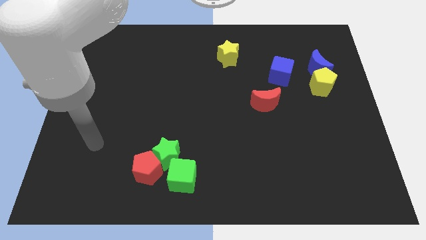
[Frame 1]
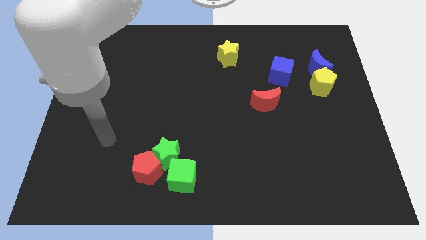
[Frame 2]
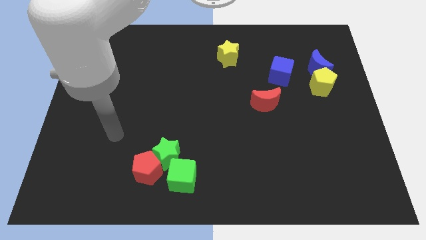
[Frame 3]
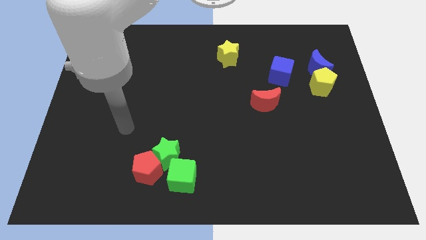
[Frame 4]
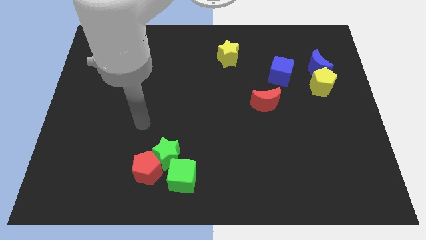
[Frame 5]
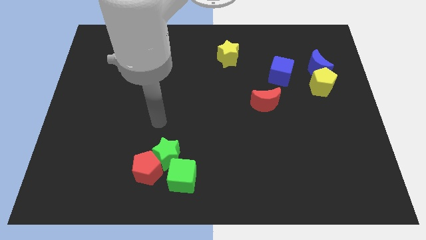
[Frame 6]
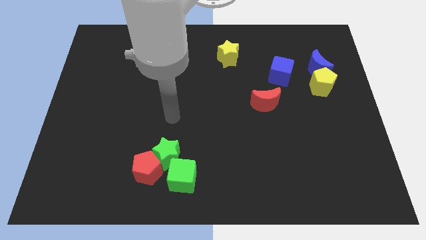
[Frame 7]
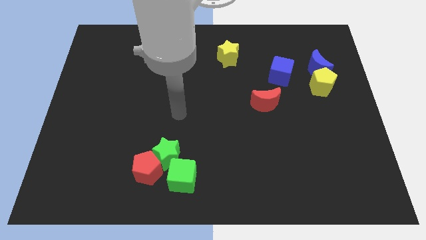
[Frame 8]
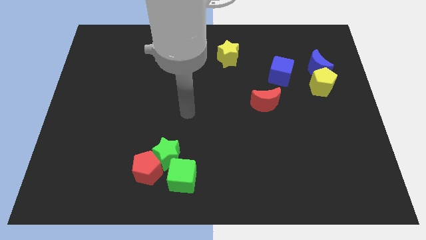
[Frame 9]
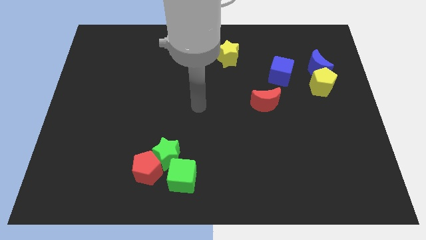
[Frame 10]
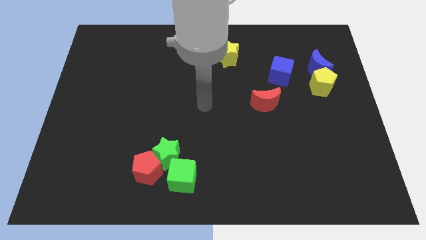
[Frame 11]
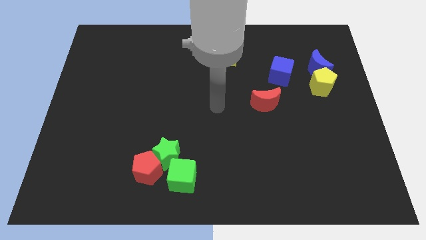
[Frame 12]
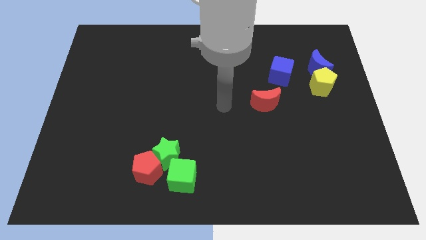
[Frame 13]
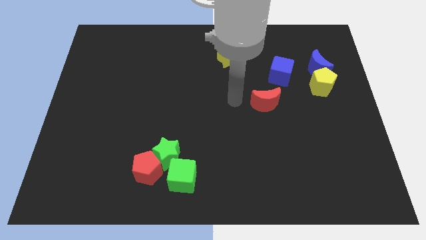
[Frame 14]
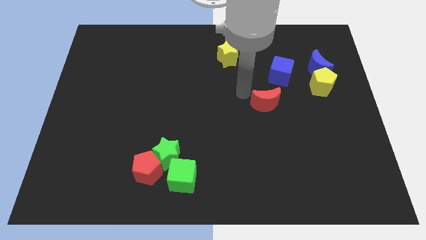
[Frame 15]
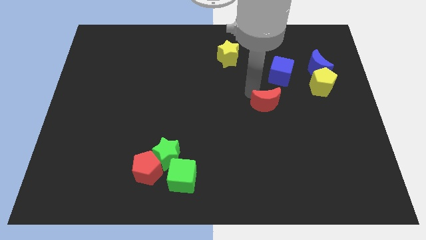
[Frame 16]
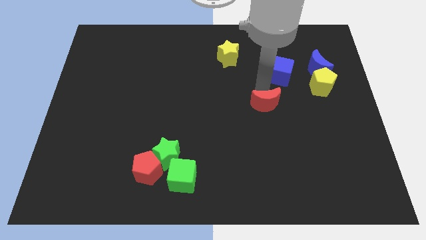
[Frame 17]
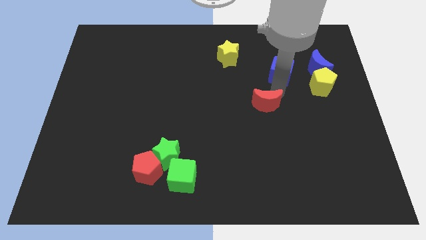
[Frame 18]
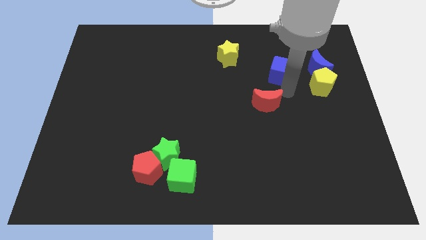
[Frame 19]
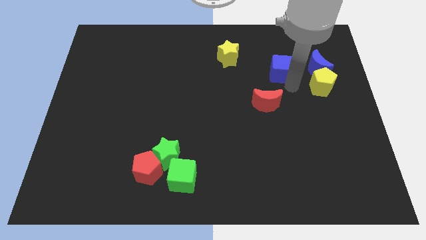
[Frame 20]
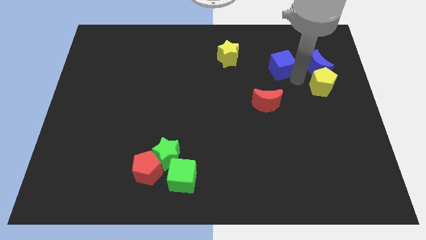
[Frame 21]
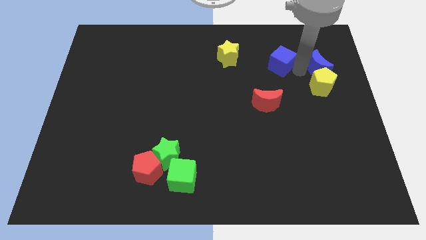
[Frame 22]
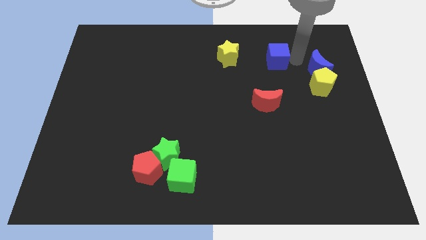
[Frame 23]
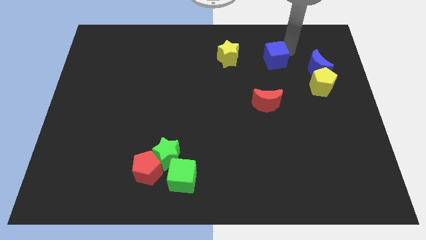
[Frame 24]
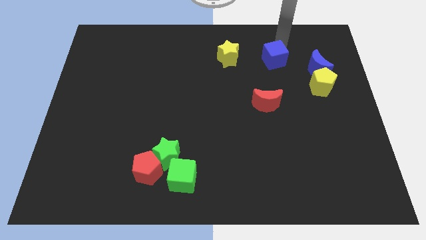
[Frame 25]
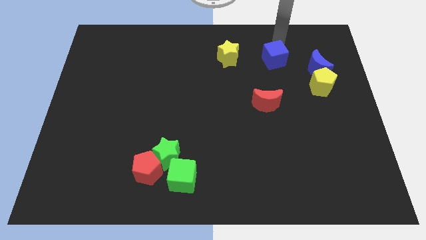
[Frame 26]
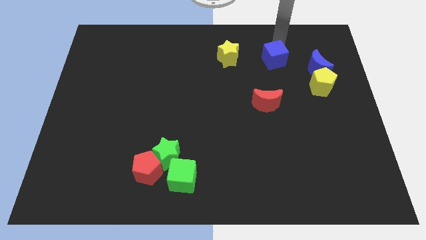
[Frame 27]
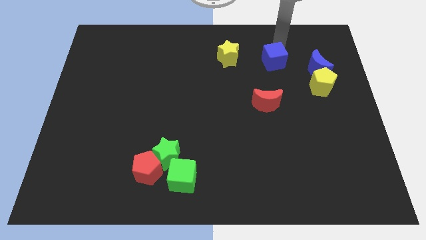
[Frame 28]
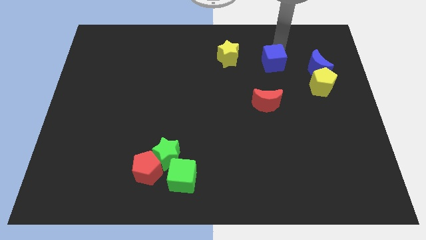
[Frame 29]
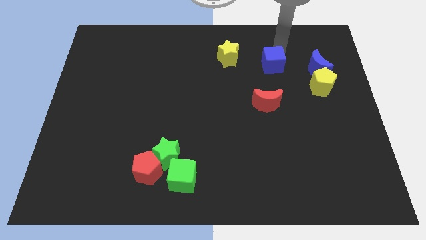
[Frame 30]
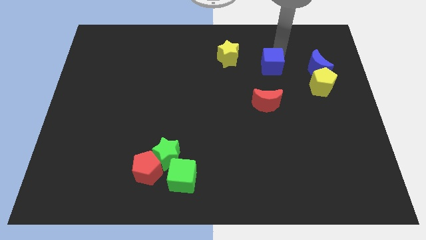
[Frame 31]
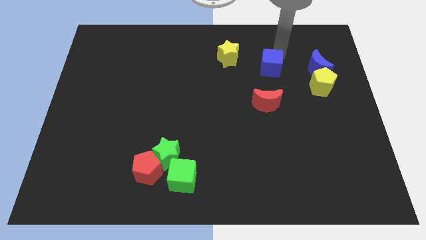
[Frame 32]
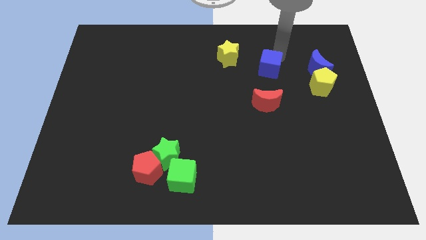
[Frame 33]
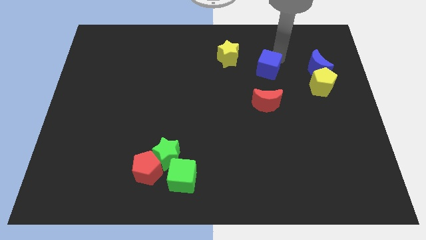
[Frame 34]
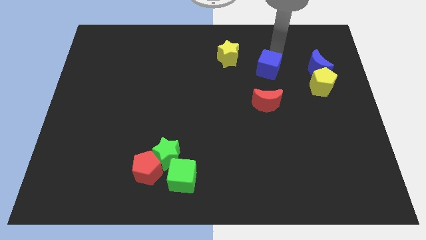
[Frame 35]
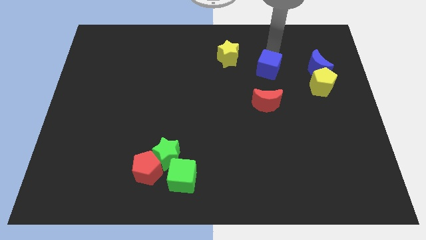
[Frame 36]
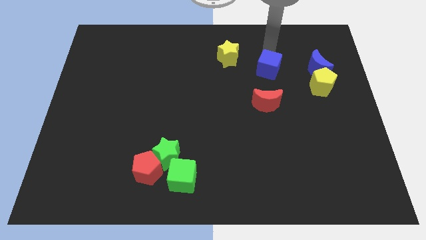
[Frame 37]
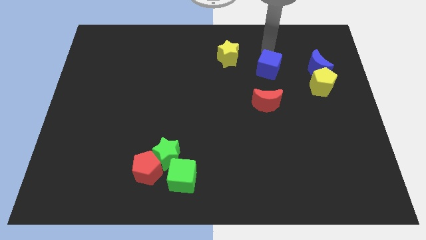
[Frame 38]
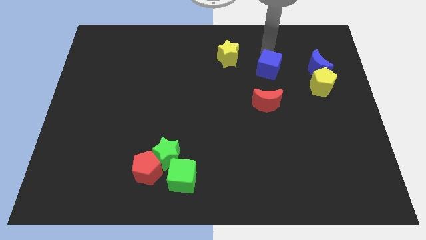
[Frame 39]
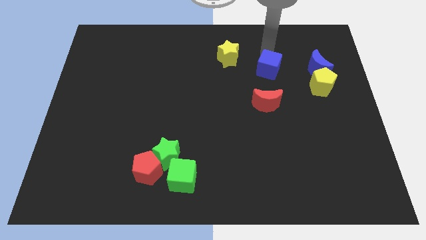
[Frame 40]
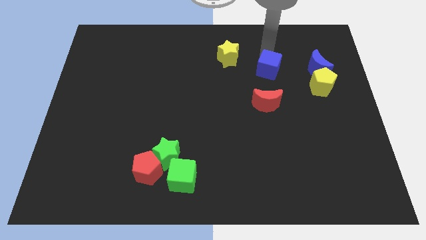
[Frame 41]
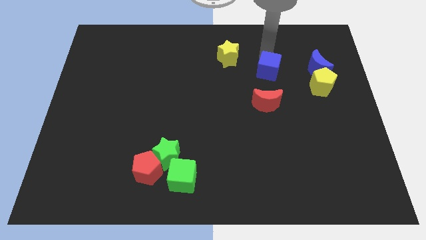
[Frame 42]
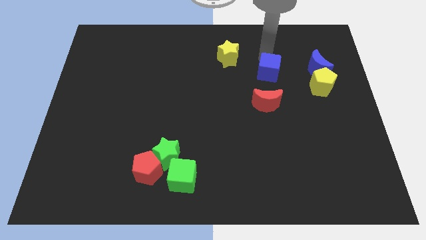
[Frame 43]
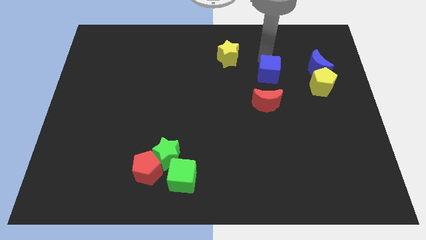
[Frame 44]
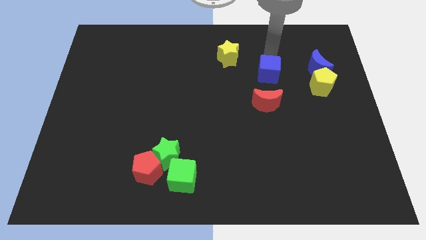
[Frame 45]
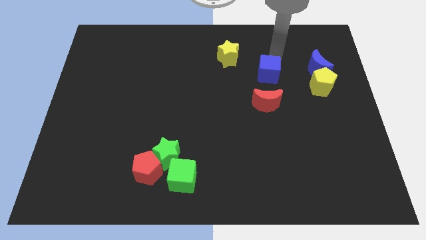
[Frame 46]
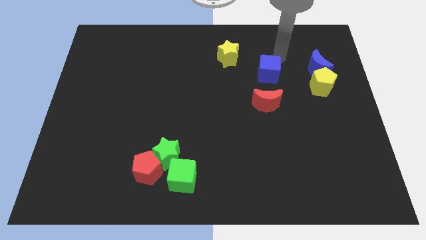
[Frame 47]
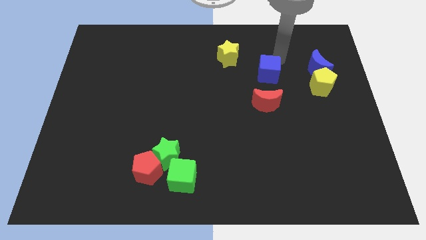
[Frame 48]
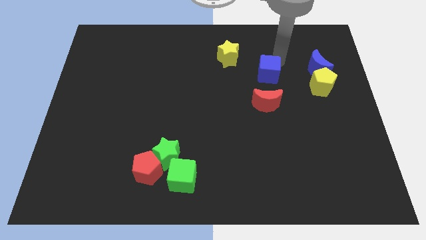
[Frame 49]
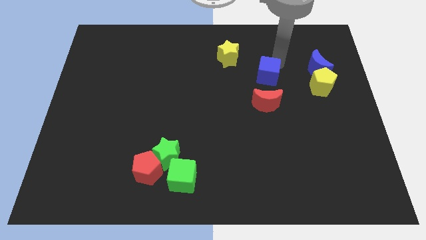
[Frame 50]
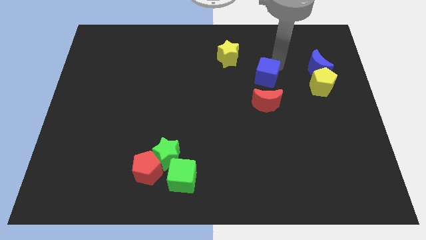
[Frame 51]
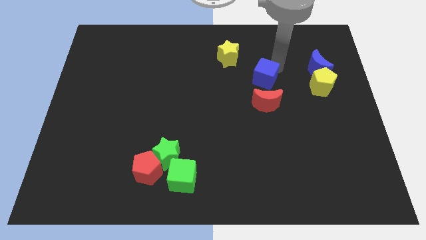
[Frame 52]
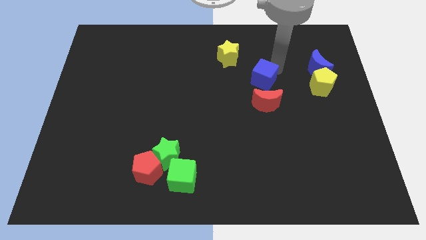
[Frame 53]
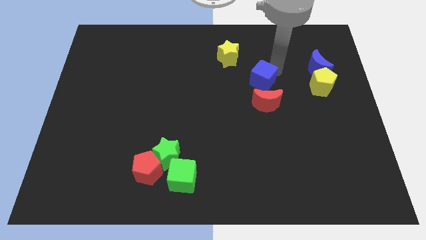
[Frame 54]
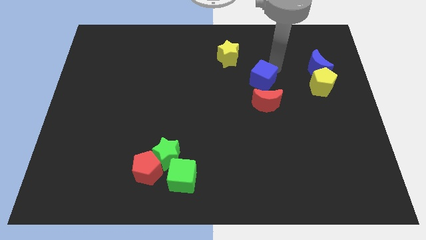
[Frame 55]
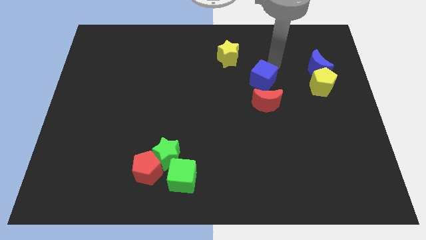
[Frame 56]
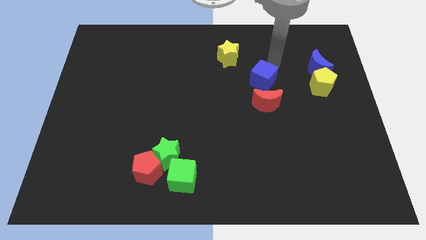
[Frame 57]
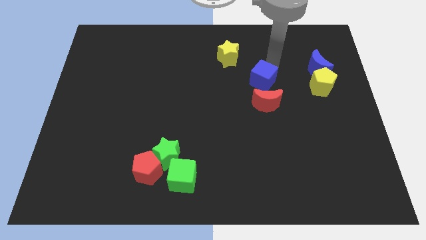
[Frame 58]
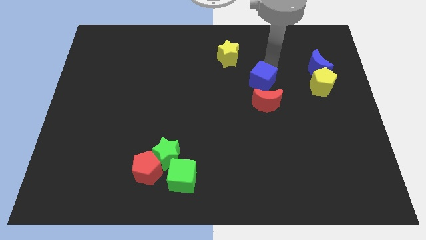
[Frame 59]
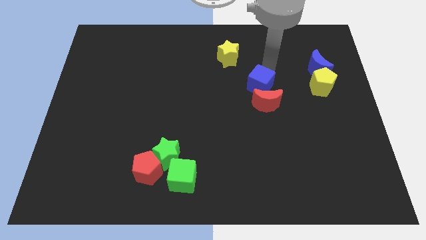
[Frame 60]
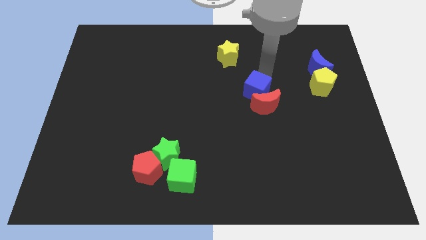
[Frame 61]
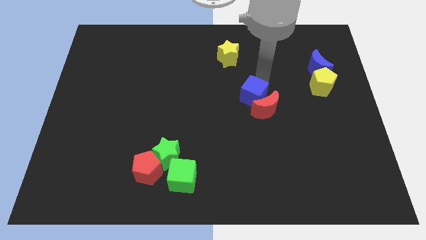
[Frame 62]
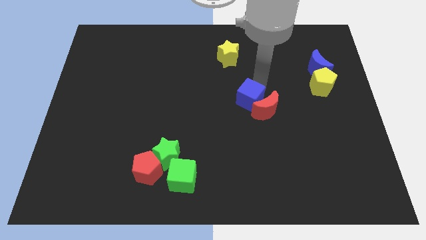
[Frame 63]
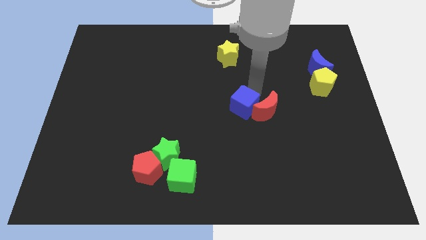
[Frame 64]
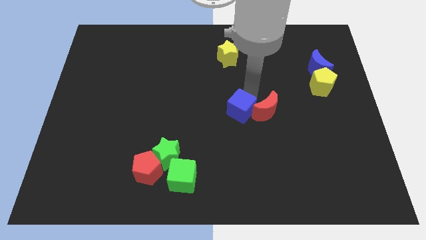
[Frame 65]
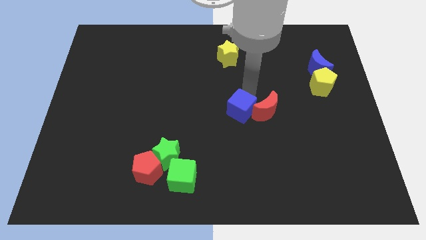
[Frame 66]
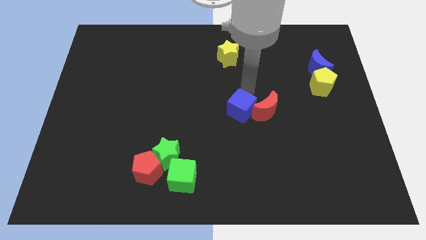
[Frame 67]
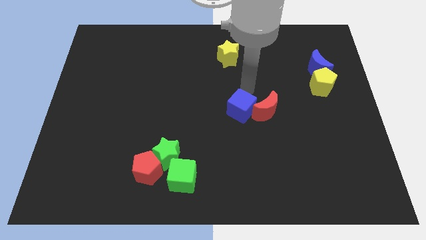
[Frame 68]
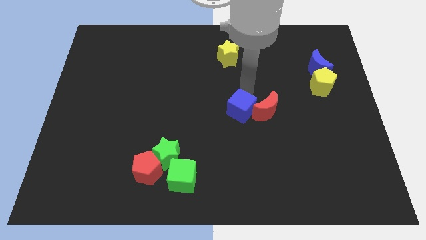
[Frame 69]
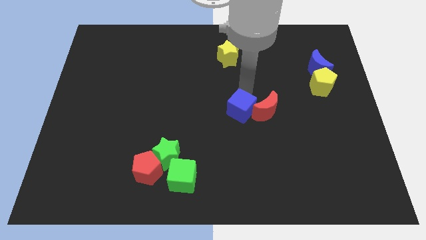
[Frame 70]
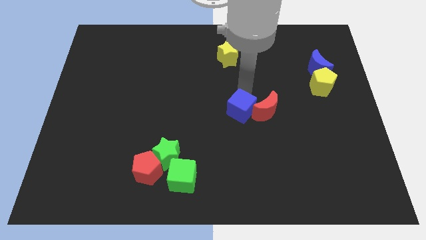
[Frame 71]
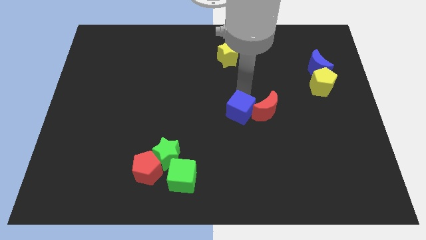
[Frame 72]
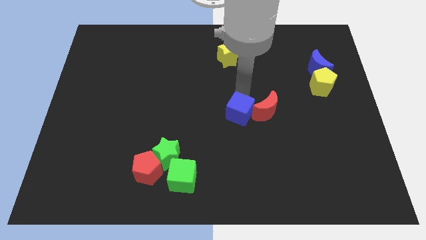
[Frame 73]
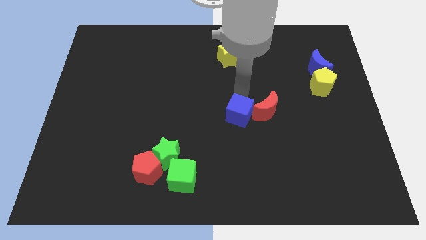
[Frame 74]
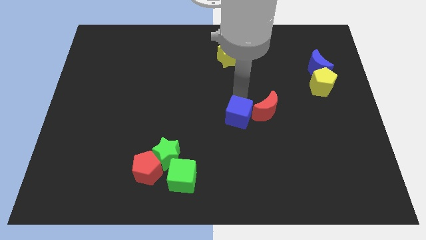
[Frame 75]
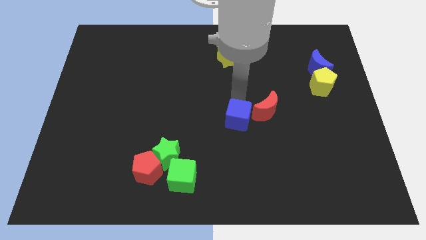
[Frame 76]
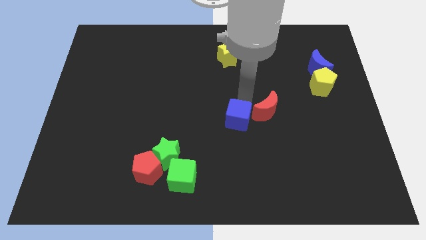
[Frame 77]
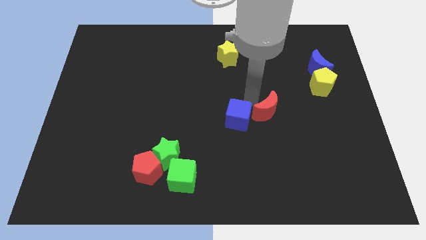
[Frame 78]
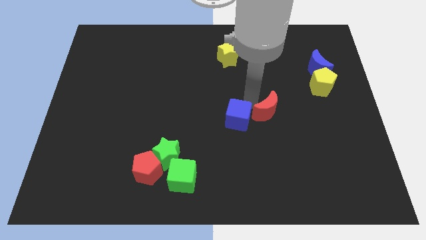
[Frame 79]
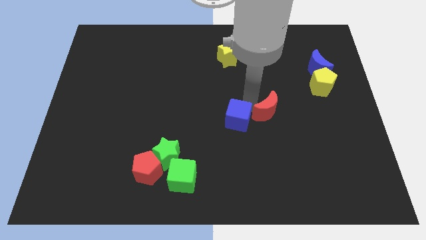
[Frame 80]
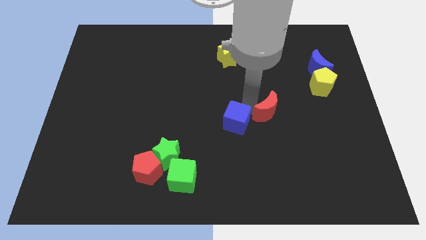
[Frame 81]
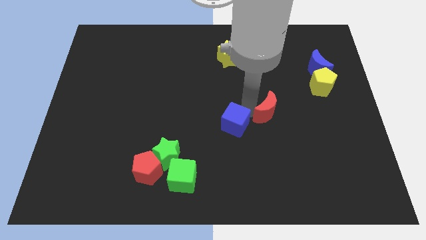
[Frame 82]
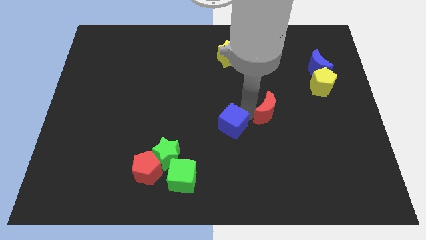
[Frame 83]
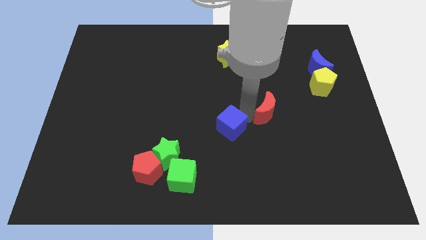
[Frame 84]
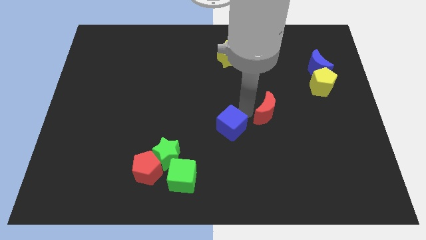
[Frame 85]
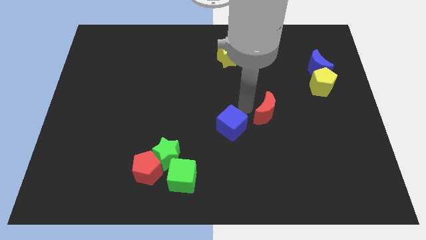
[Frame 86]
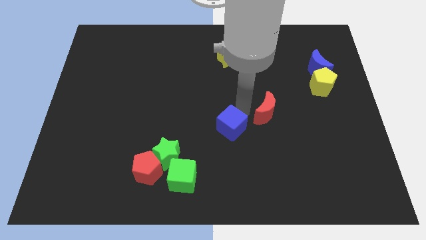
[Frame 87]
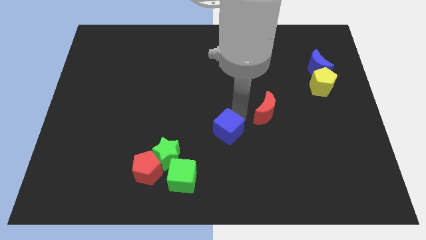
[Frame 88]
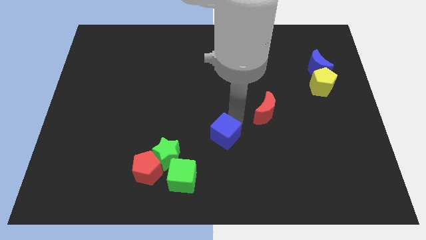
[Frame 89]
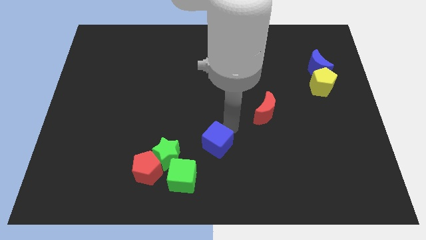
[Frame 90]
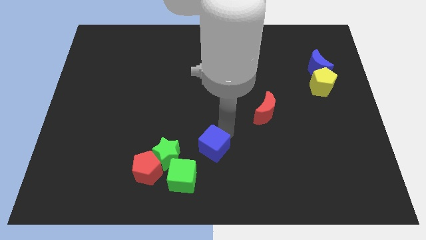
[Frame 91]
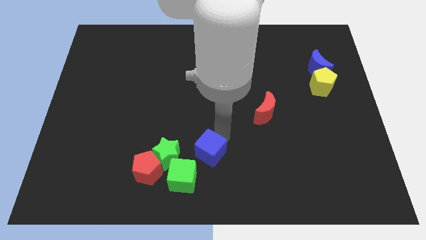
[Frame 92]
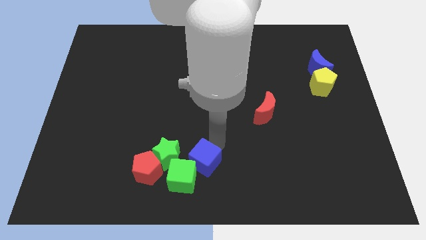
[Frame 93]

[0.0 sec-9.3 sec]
slide the blue cube next to the green cube
